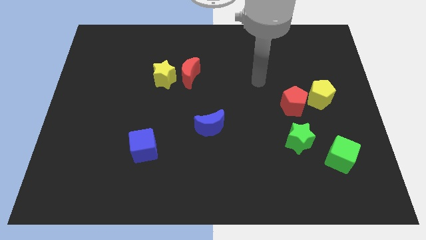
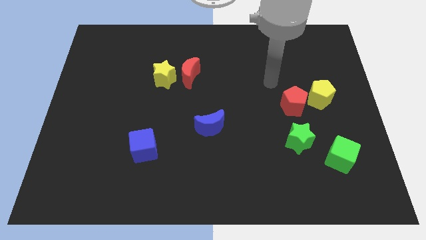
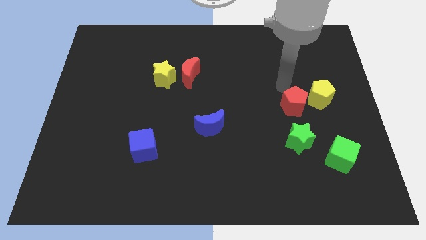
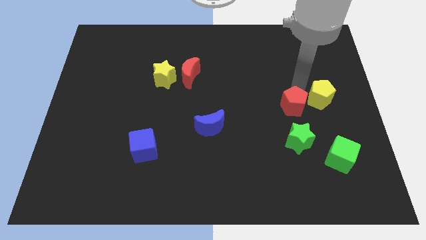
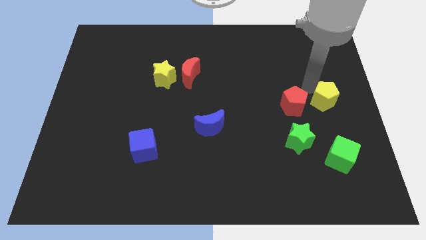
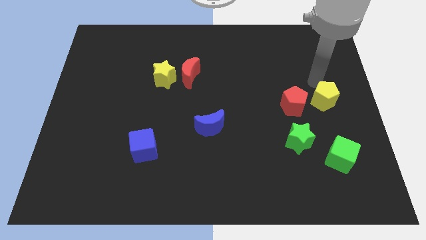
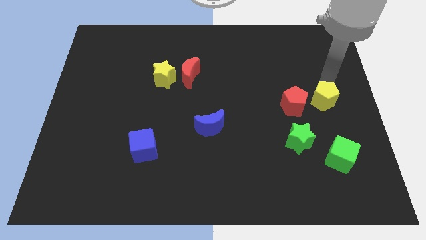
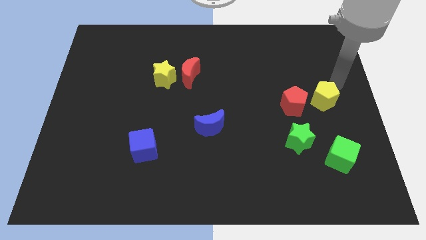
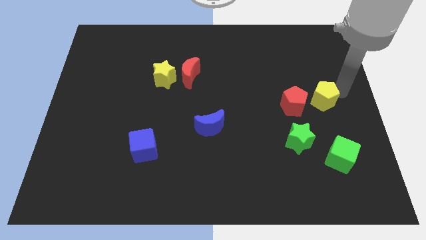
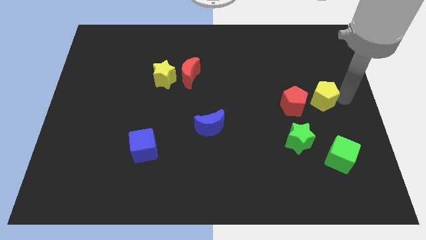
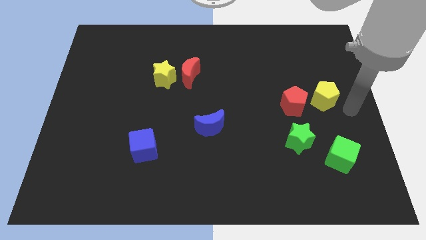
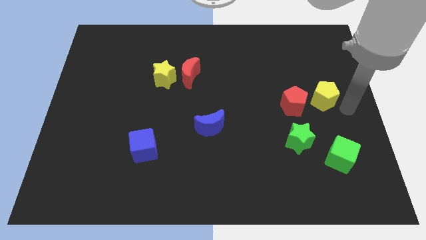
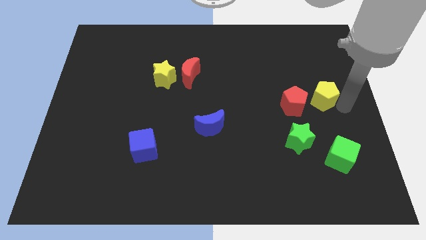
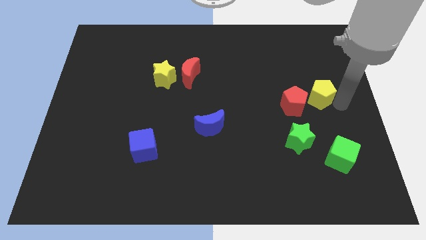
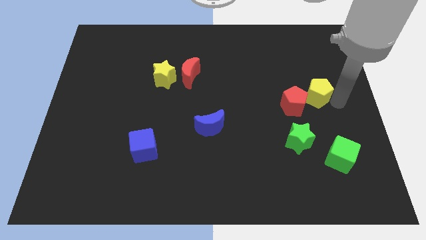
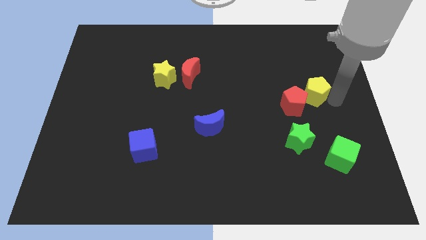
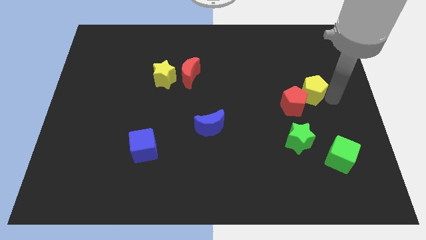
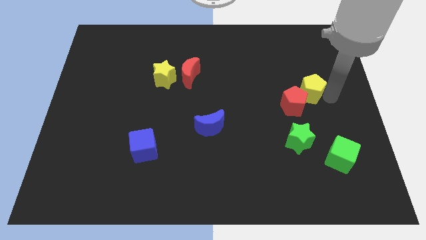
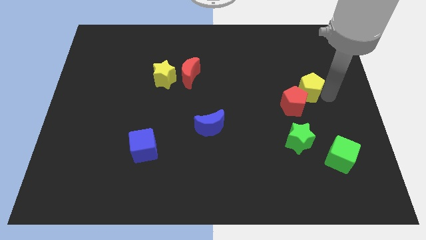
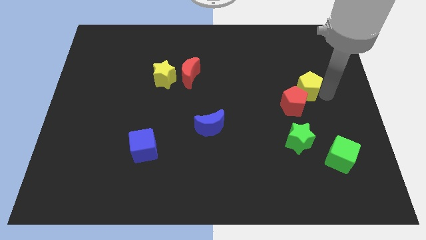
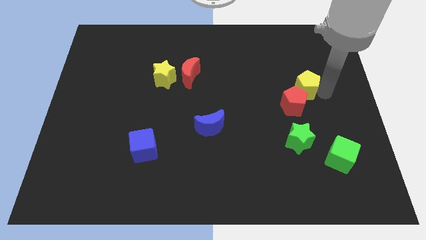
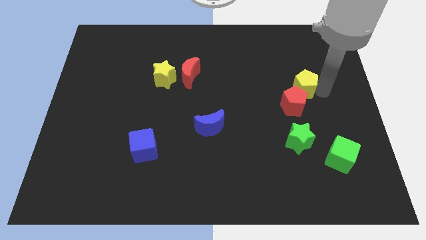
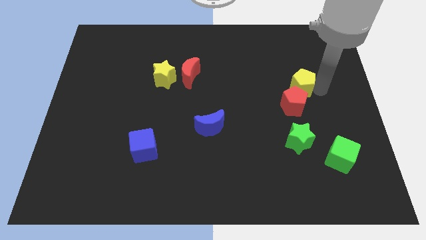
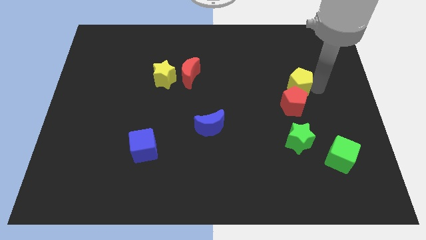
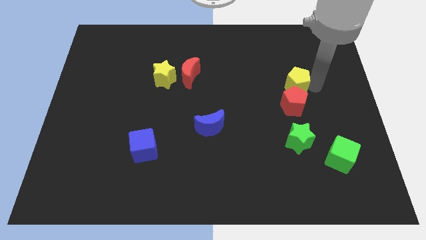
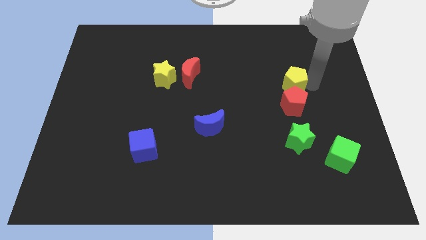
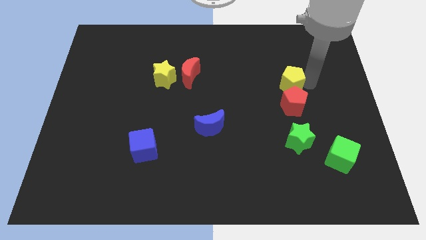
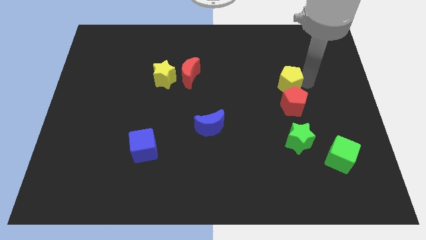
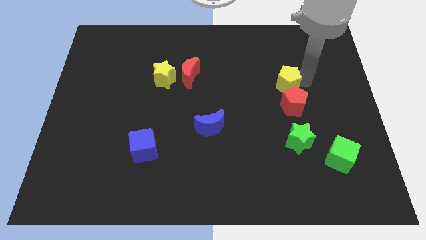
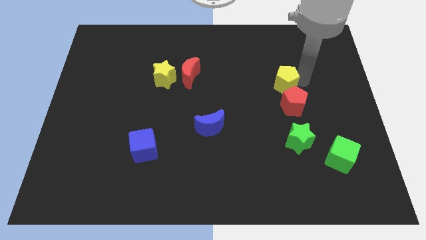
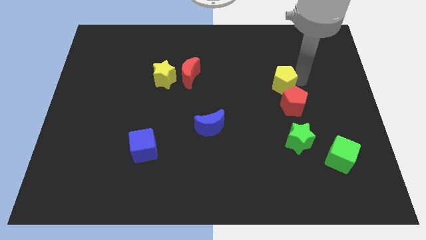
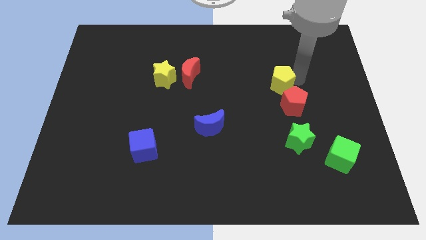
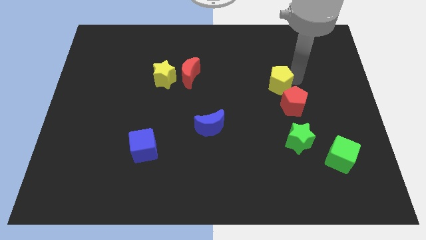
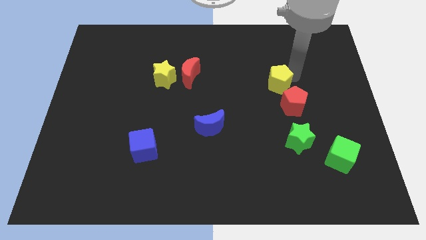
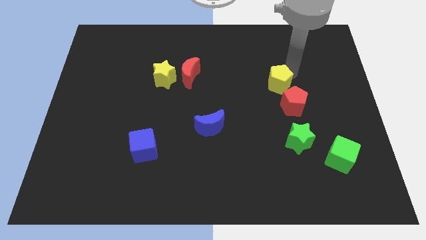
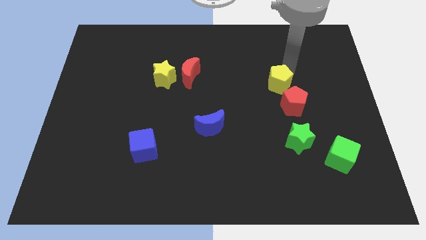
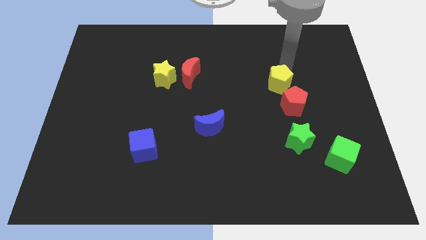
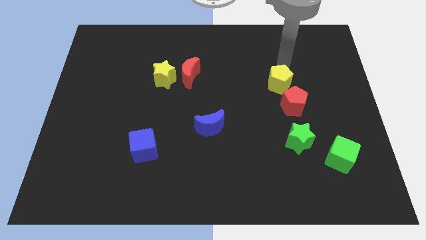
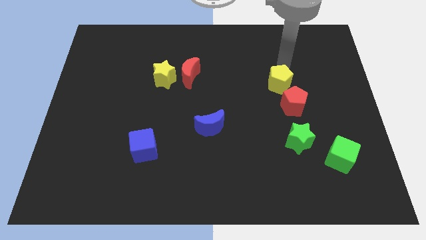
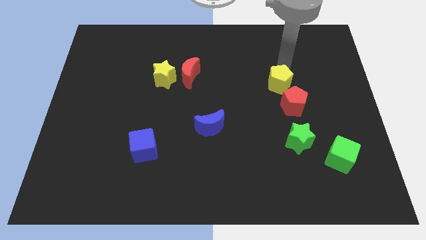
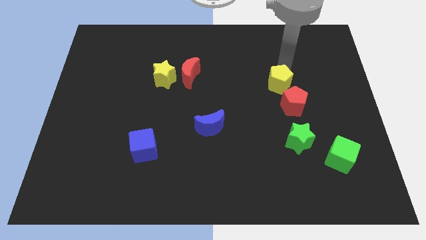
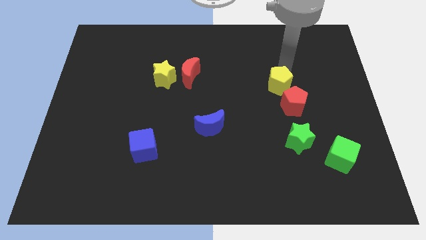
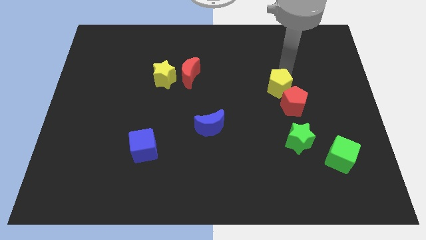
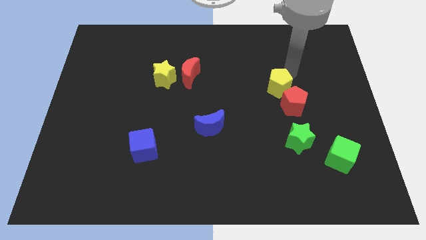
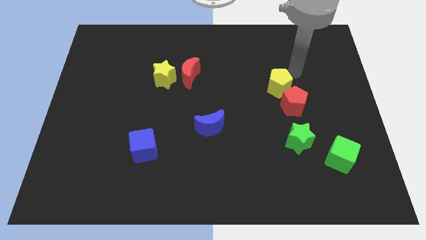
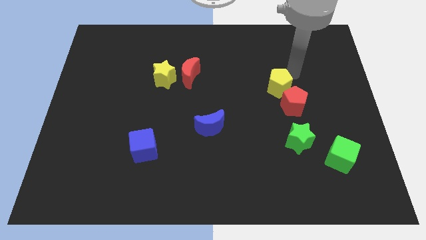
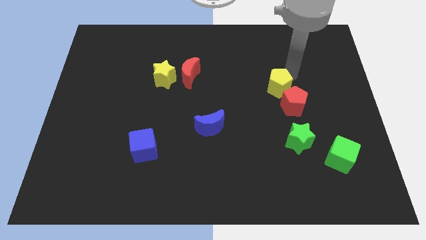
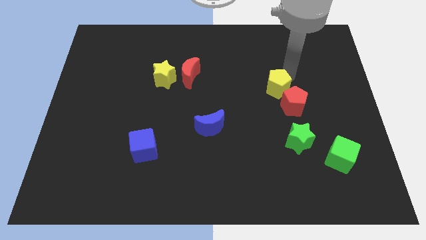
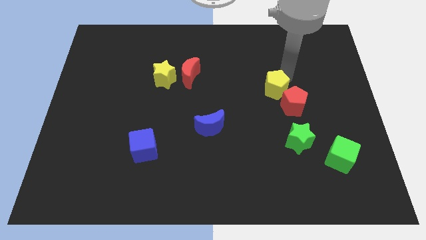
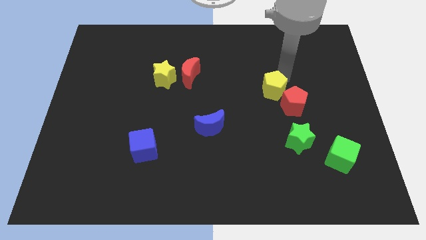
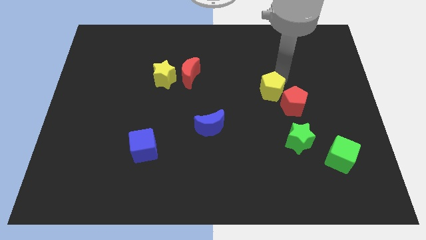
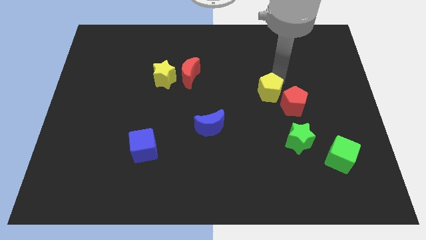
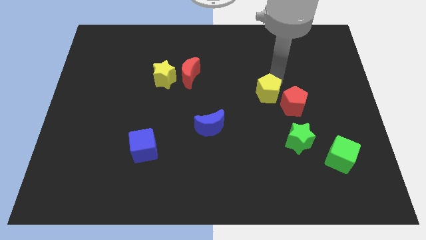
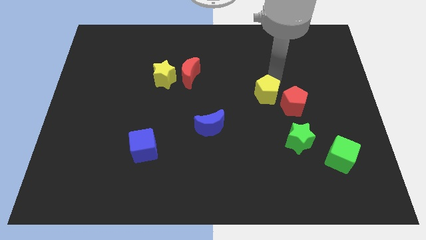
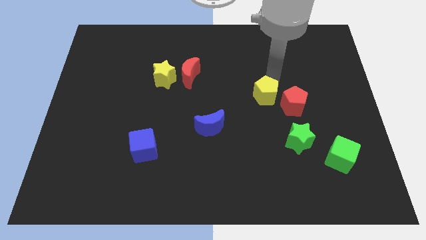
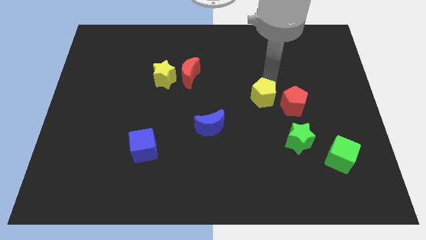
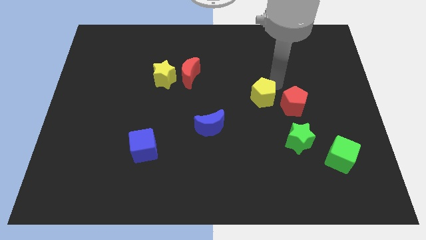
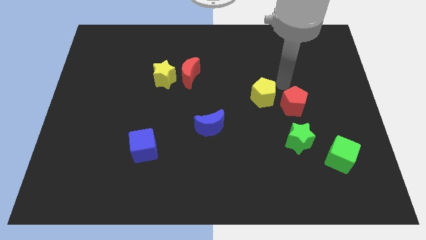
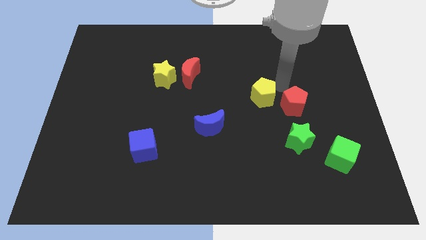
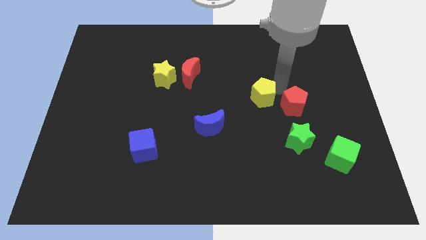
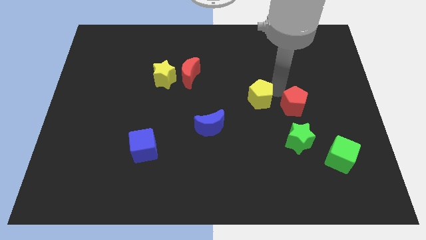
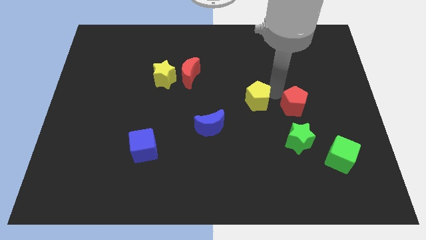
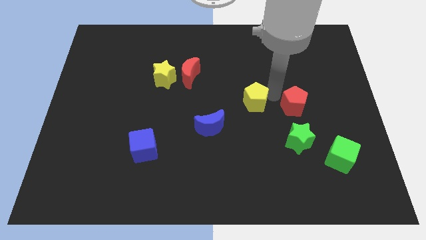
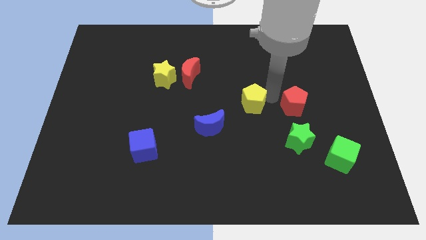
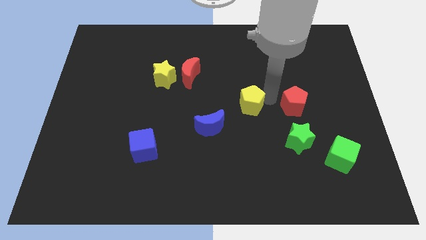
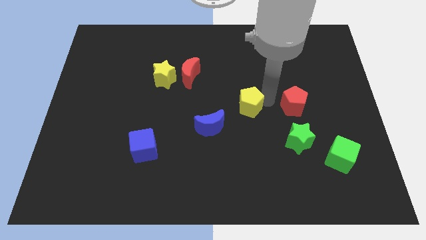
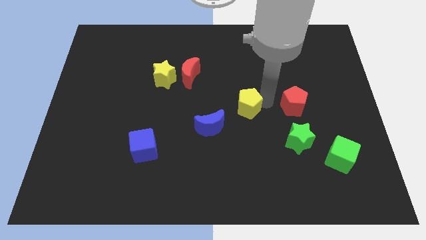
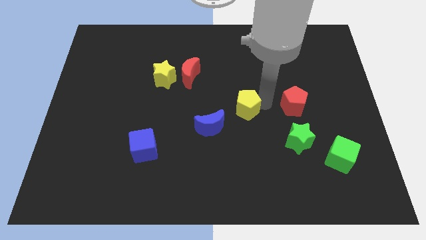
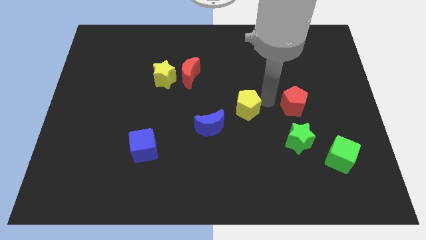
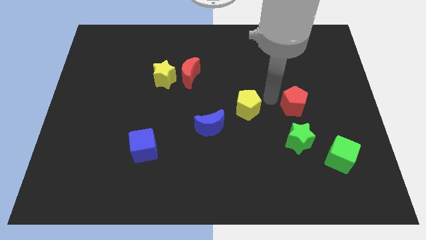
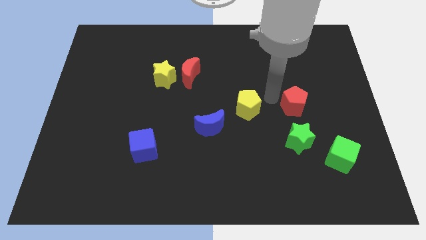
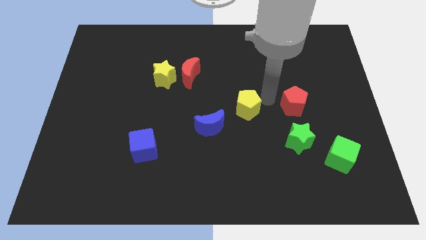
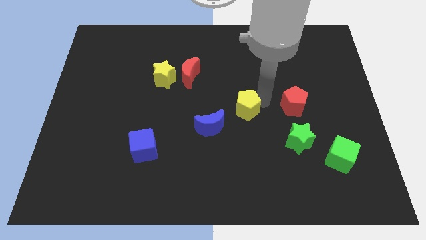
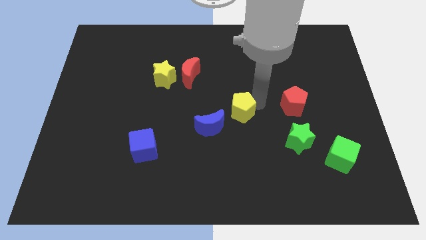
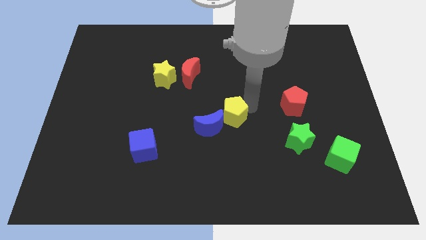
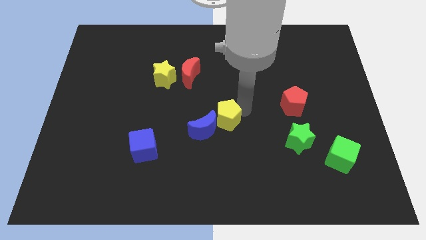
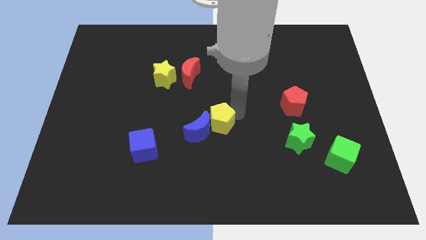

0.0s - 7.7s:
push the yellow pentagon towards the blue moon
